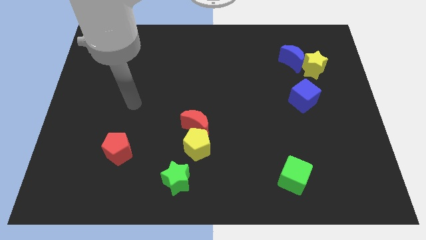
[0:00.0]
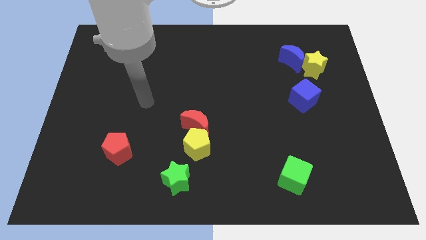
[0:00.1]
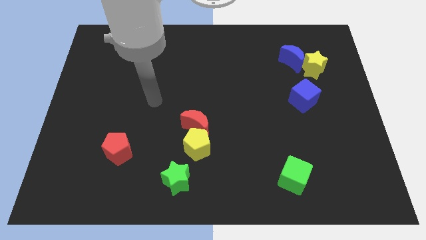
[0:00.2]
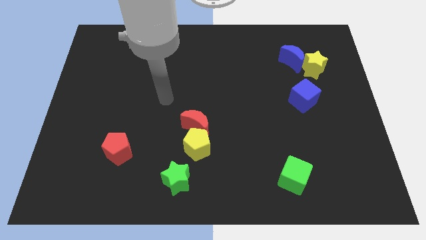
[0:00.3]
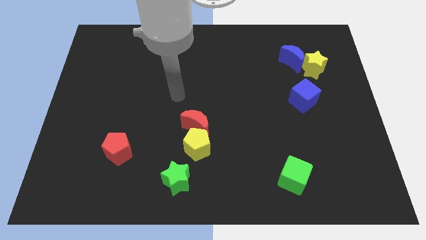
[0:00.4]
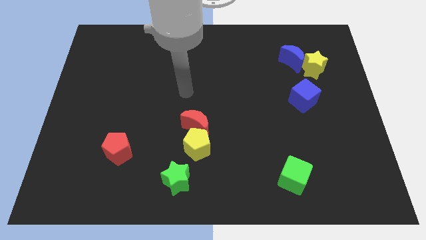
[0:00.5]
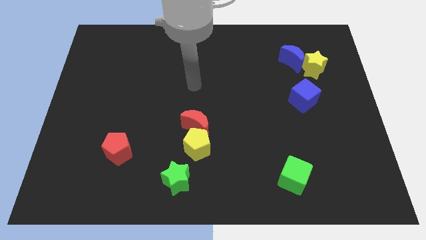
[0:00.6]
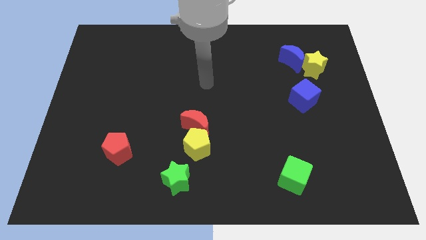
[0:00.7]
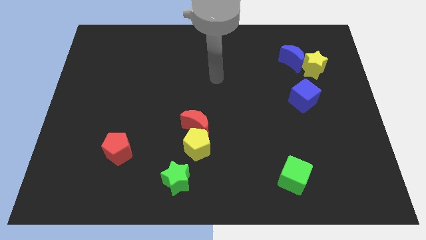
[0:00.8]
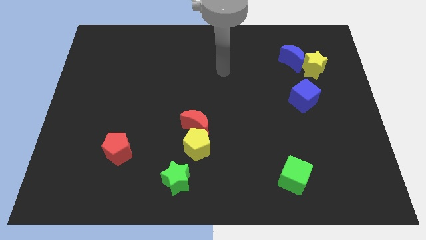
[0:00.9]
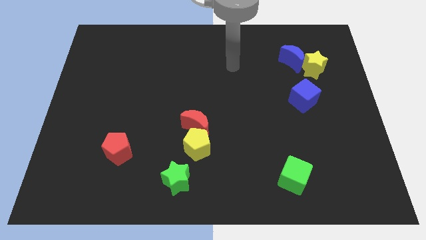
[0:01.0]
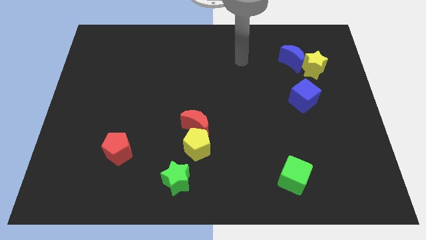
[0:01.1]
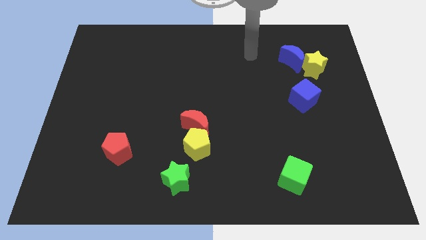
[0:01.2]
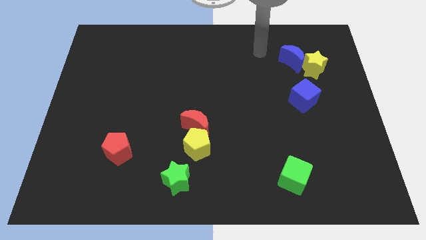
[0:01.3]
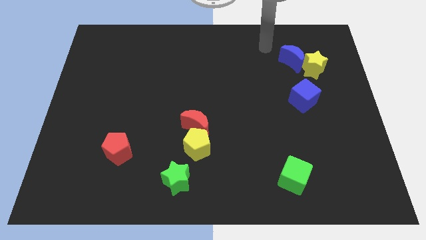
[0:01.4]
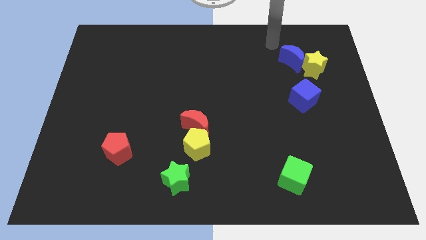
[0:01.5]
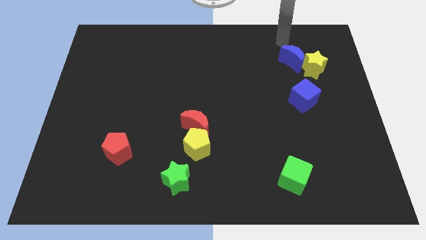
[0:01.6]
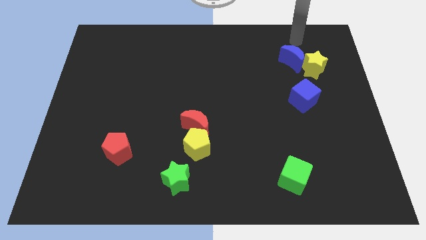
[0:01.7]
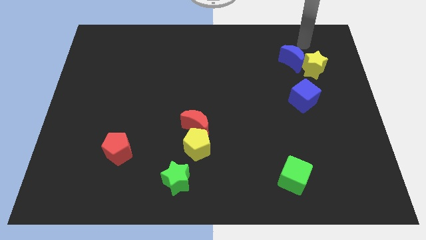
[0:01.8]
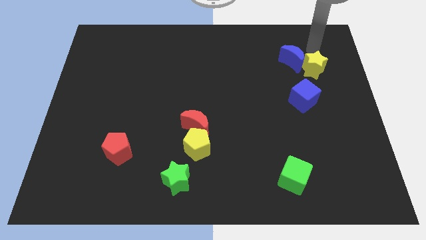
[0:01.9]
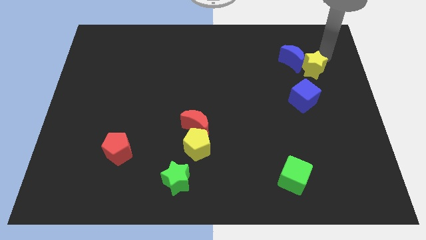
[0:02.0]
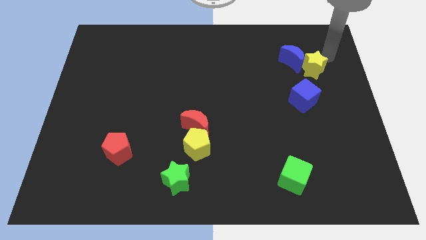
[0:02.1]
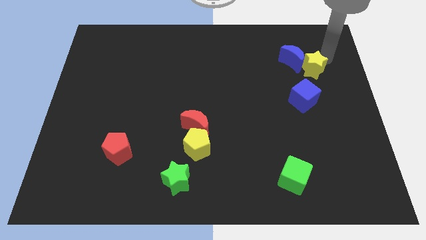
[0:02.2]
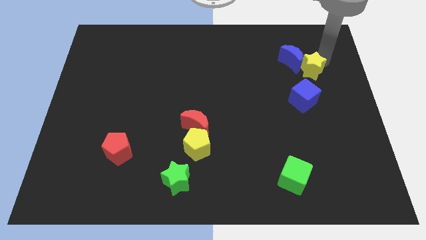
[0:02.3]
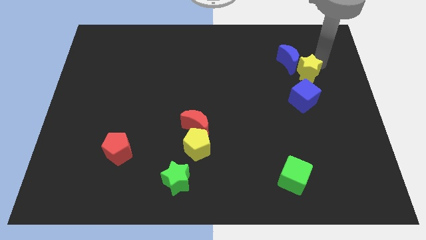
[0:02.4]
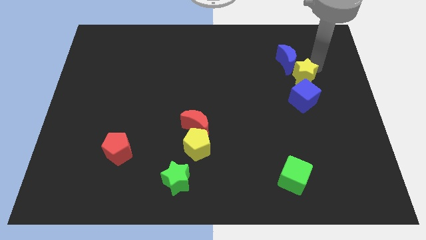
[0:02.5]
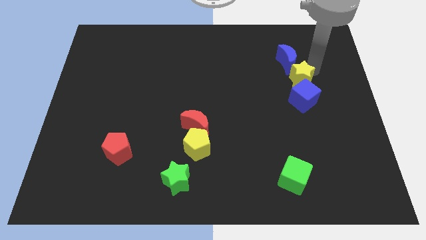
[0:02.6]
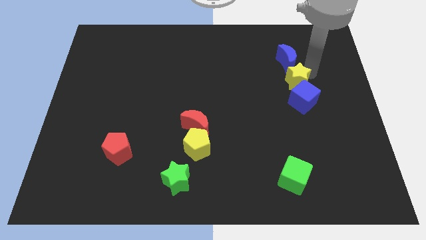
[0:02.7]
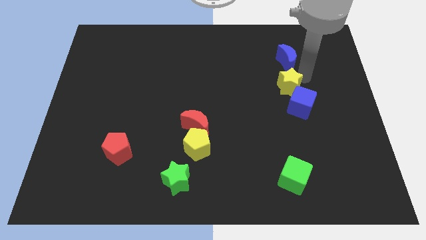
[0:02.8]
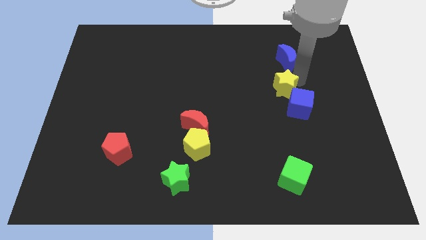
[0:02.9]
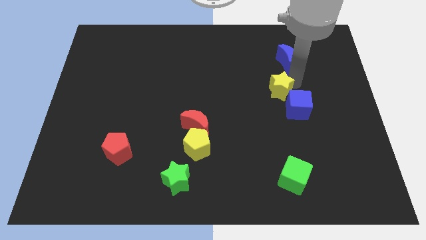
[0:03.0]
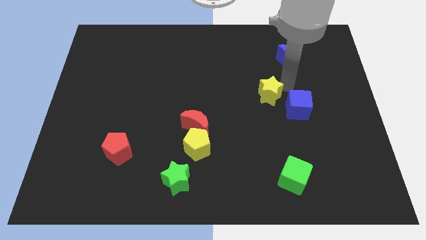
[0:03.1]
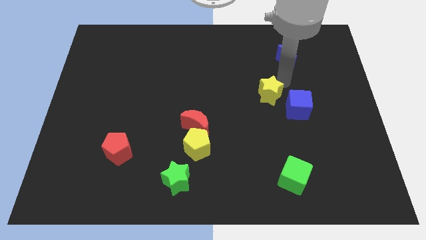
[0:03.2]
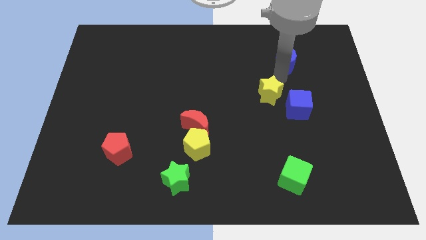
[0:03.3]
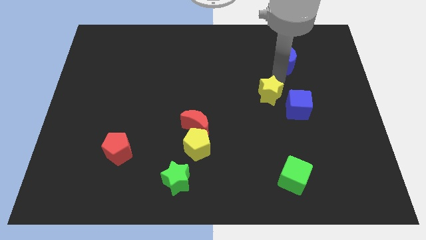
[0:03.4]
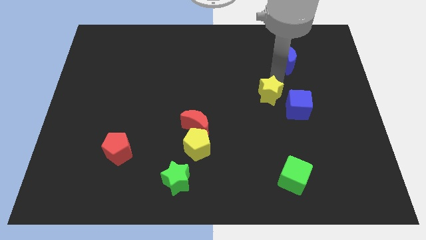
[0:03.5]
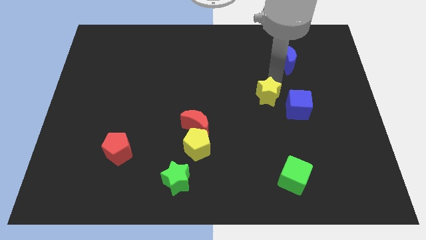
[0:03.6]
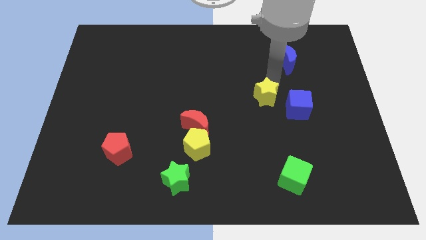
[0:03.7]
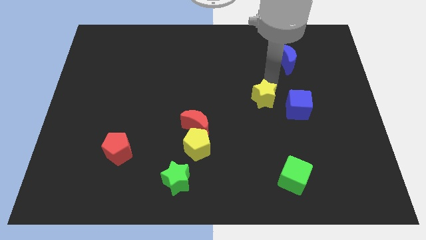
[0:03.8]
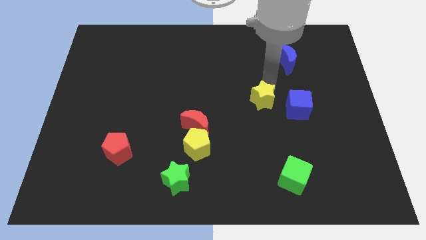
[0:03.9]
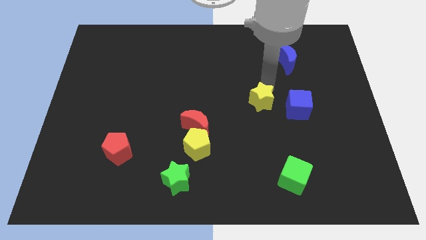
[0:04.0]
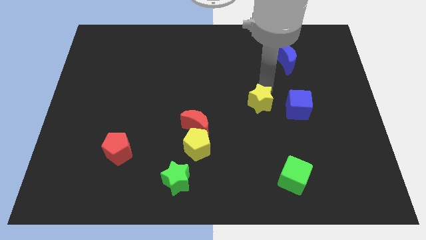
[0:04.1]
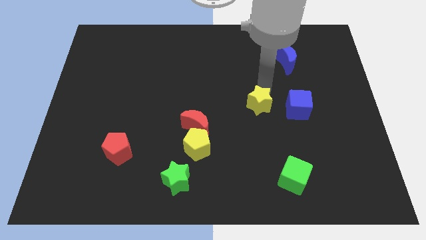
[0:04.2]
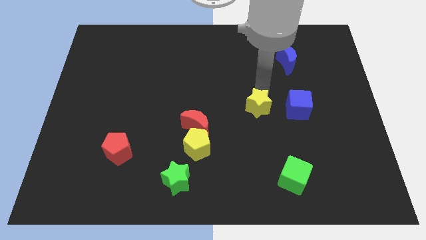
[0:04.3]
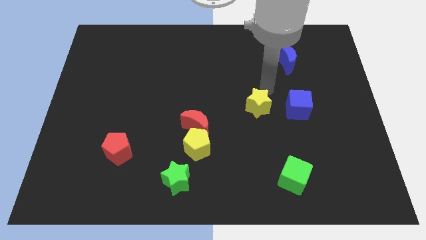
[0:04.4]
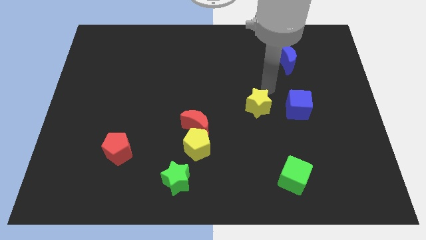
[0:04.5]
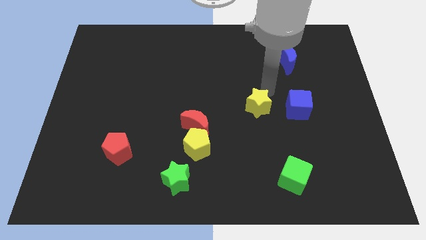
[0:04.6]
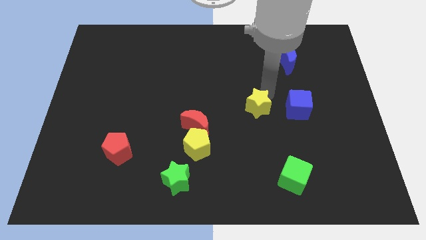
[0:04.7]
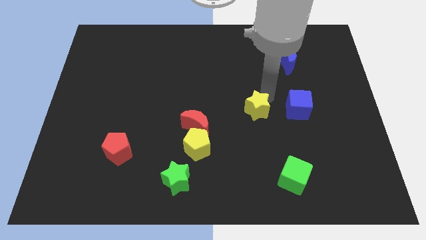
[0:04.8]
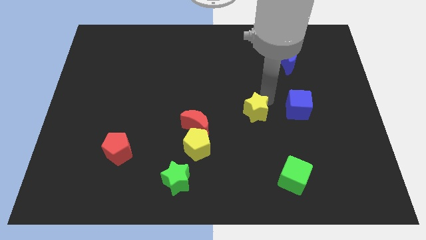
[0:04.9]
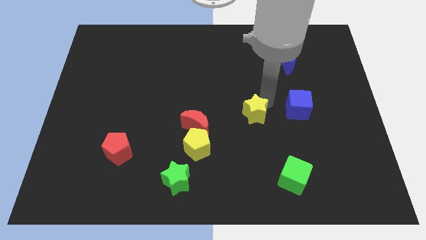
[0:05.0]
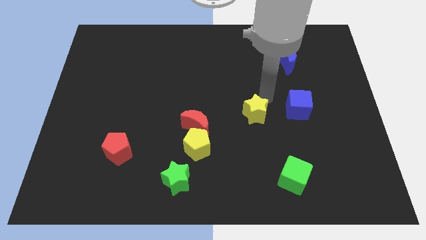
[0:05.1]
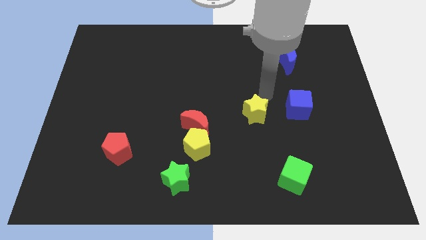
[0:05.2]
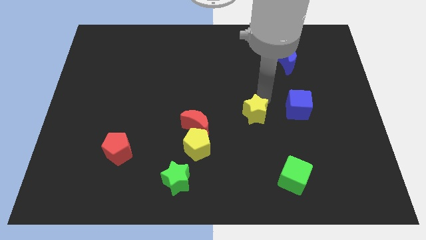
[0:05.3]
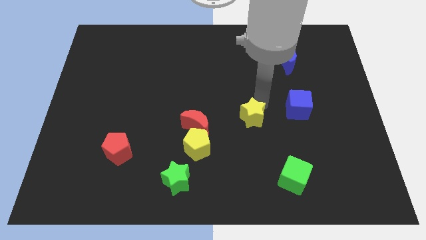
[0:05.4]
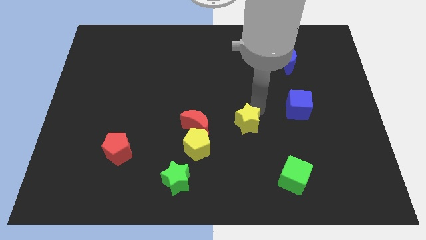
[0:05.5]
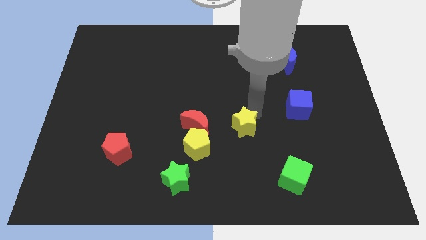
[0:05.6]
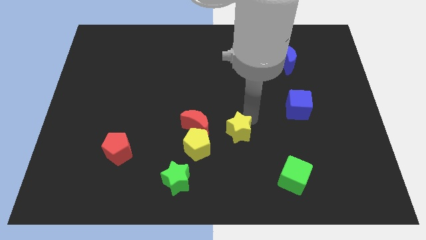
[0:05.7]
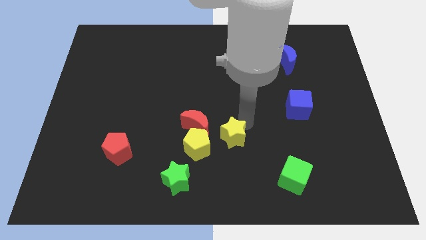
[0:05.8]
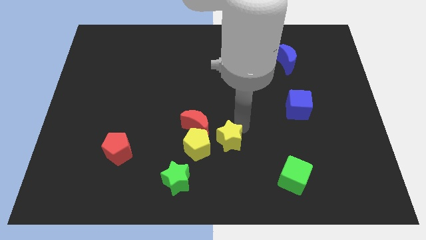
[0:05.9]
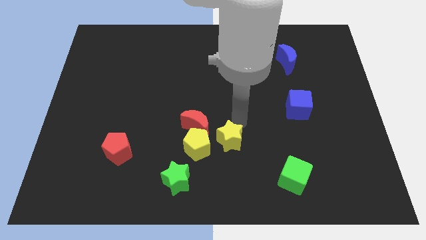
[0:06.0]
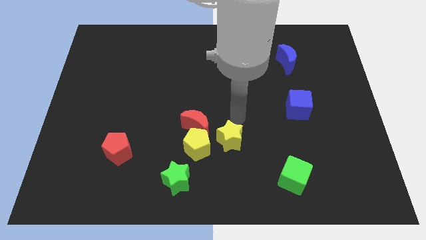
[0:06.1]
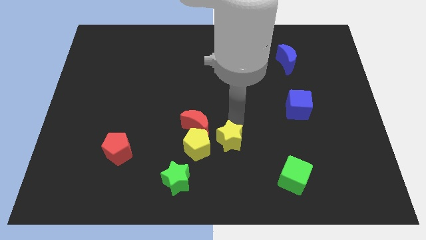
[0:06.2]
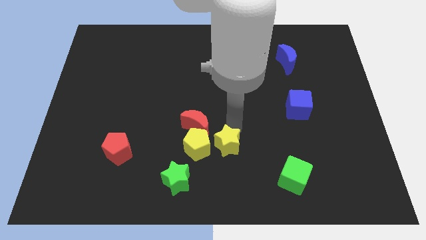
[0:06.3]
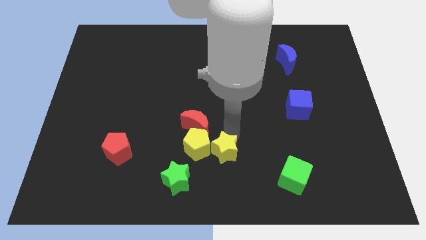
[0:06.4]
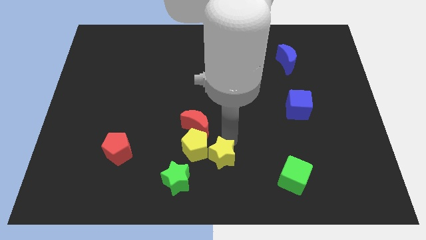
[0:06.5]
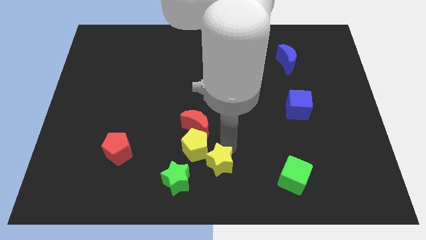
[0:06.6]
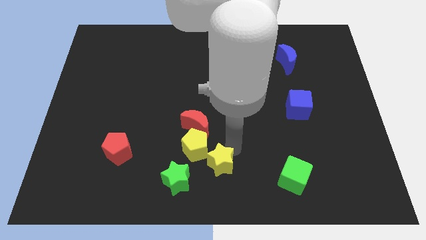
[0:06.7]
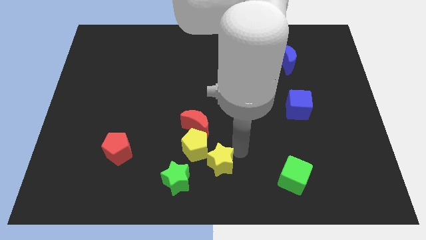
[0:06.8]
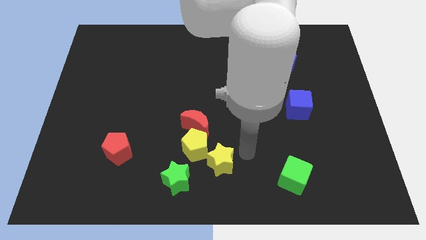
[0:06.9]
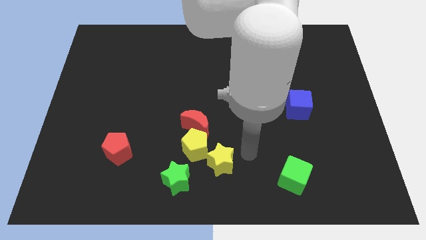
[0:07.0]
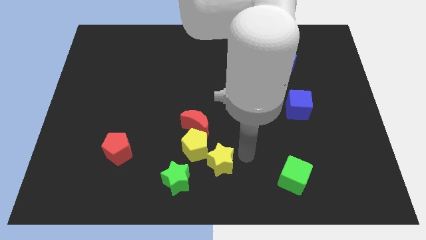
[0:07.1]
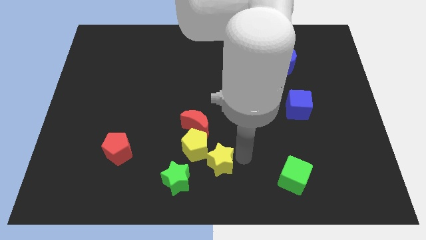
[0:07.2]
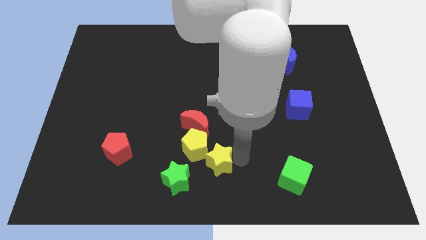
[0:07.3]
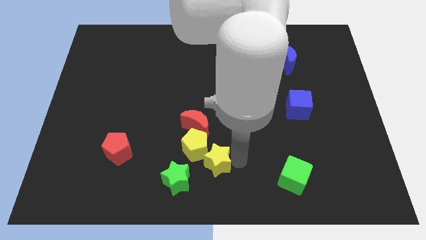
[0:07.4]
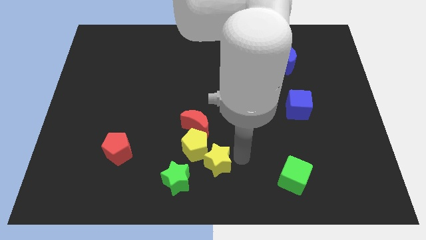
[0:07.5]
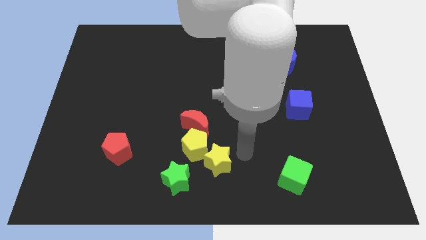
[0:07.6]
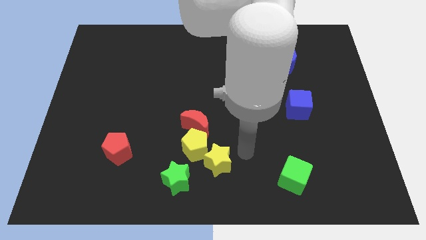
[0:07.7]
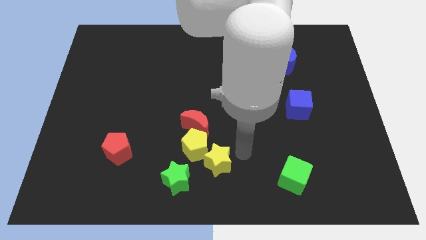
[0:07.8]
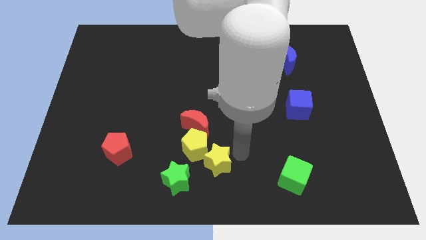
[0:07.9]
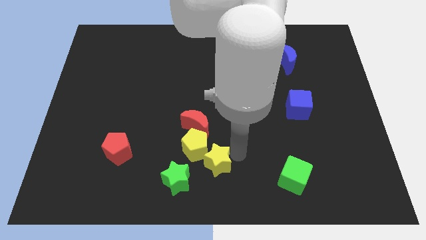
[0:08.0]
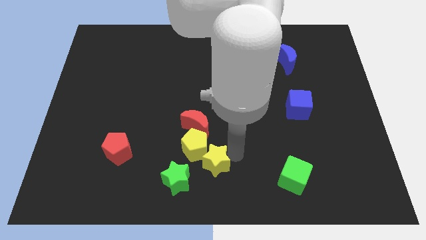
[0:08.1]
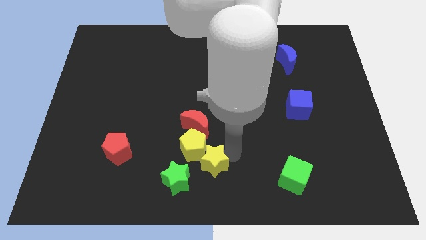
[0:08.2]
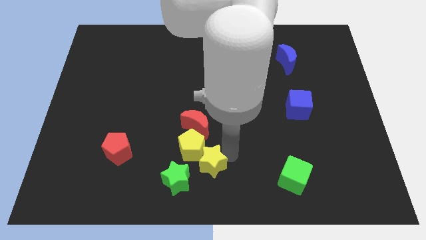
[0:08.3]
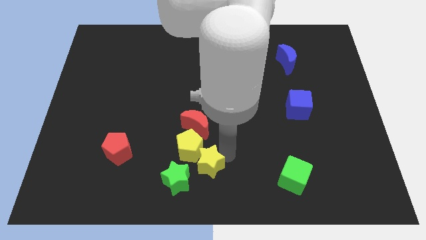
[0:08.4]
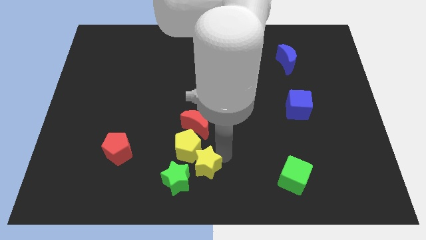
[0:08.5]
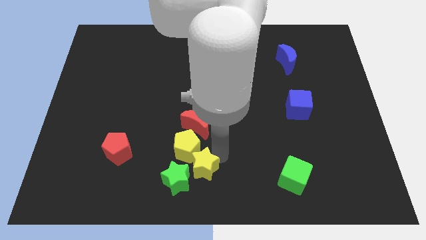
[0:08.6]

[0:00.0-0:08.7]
put the yellow star towards the green star
